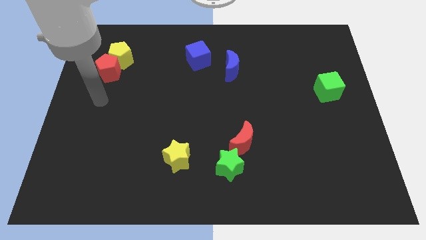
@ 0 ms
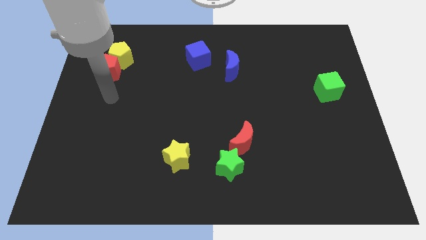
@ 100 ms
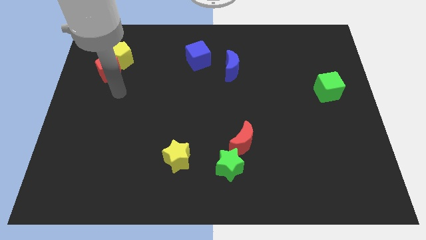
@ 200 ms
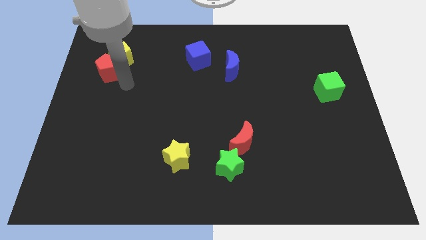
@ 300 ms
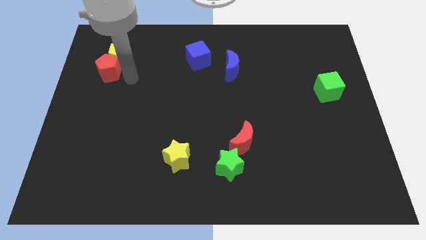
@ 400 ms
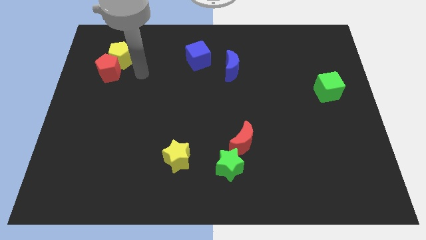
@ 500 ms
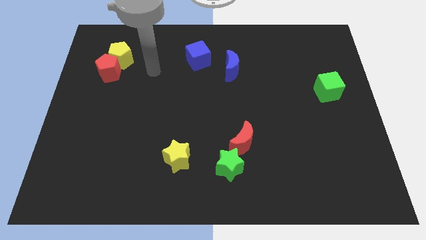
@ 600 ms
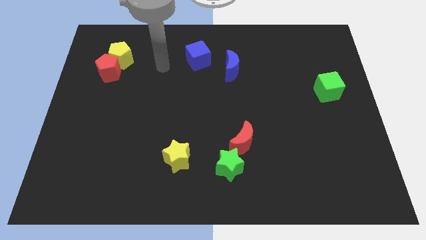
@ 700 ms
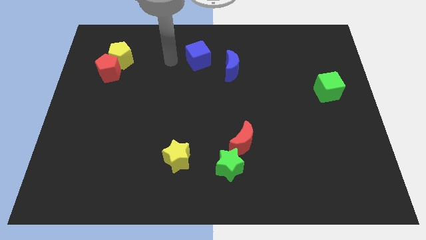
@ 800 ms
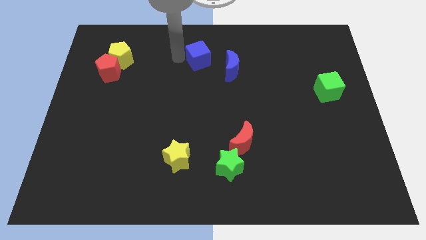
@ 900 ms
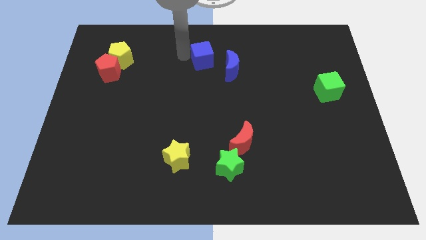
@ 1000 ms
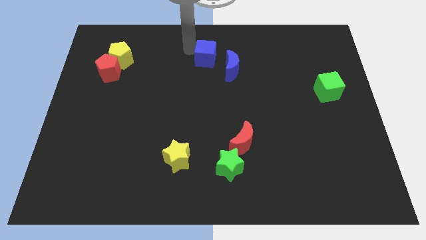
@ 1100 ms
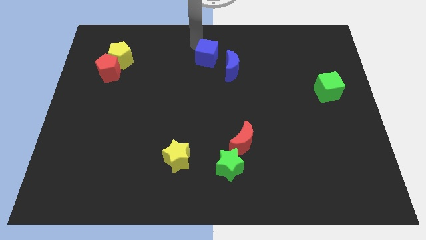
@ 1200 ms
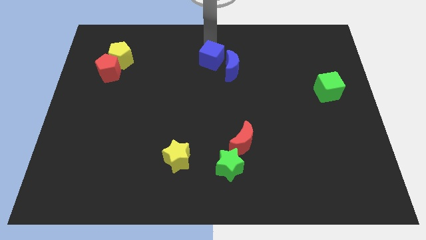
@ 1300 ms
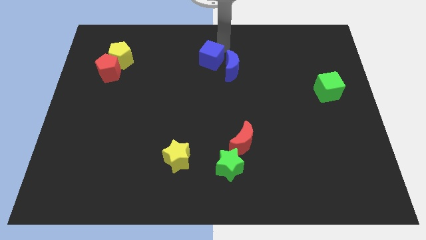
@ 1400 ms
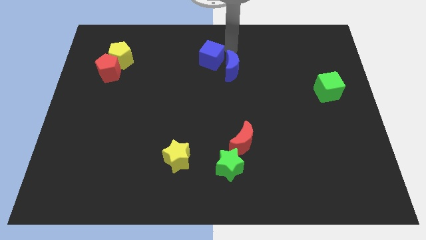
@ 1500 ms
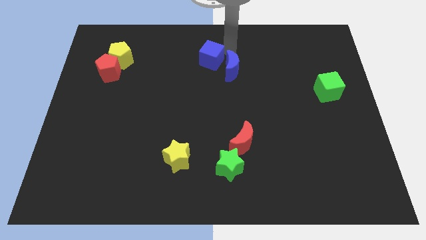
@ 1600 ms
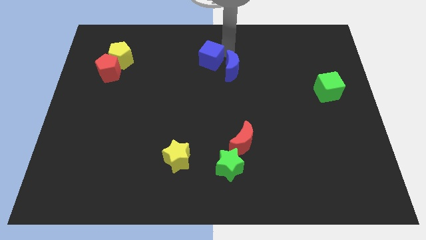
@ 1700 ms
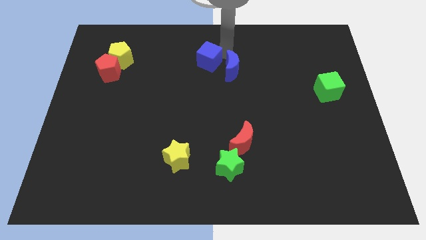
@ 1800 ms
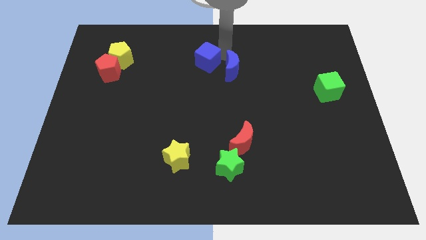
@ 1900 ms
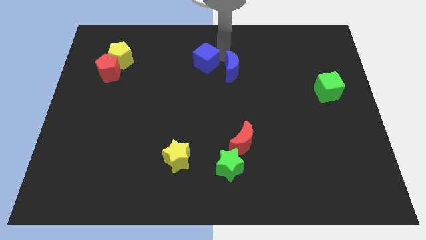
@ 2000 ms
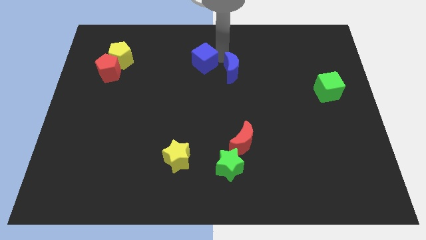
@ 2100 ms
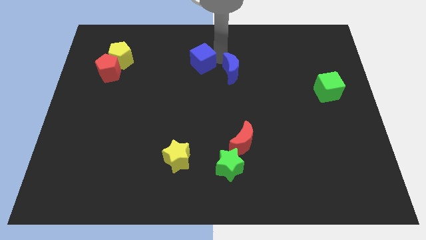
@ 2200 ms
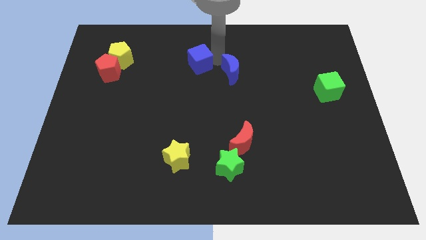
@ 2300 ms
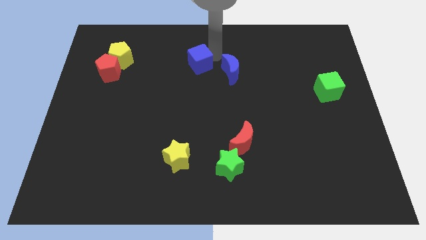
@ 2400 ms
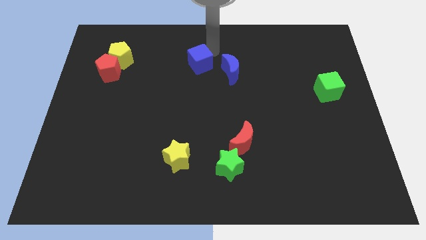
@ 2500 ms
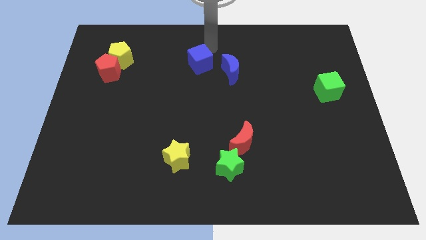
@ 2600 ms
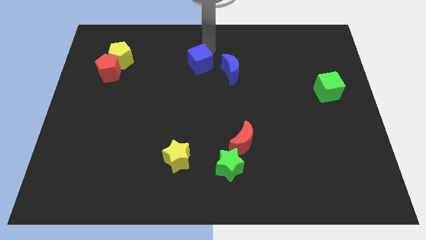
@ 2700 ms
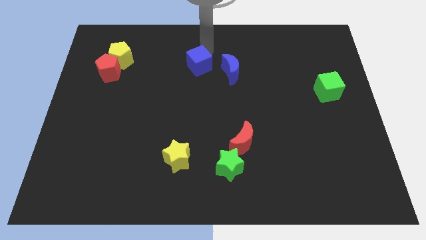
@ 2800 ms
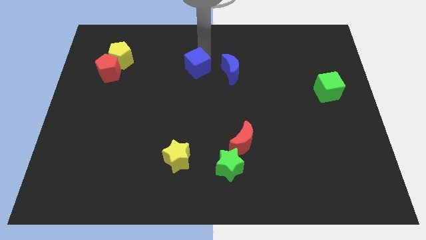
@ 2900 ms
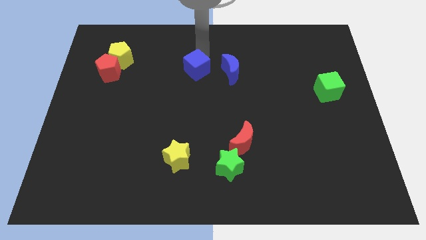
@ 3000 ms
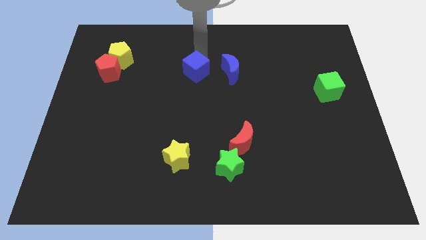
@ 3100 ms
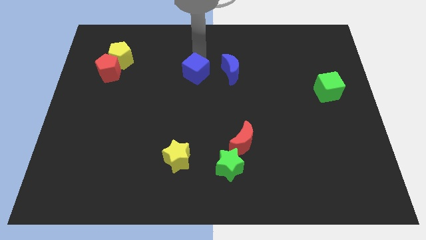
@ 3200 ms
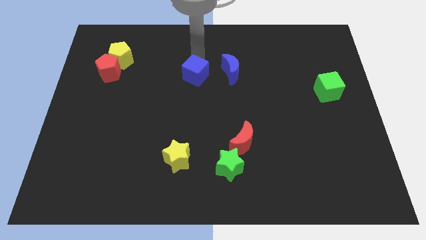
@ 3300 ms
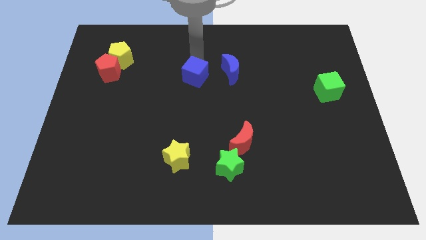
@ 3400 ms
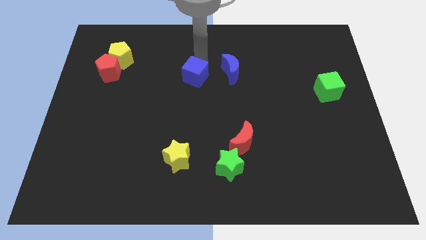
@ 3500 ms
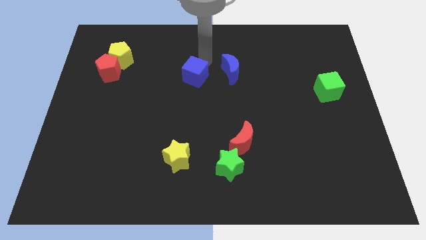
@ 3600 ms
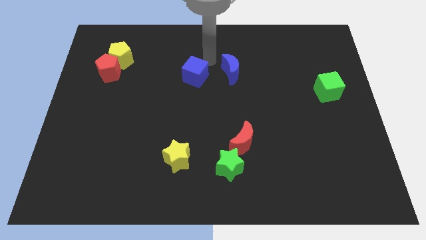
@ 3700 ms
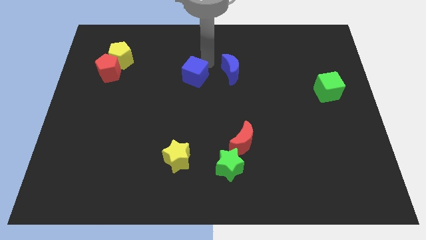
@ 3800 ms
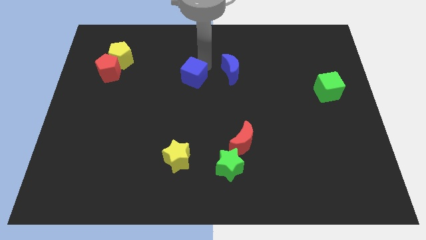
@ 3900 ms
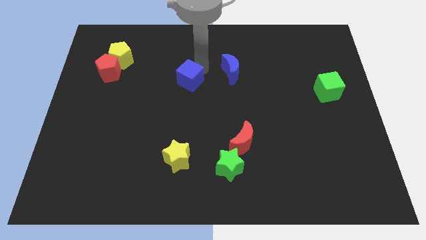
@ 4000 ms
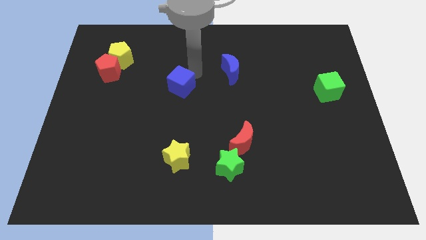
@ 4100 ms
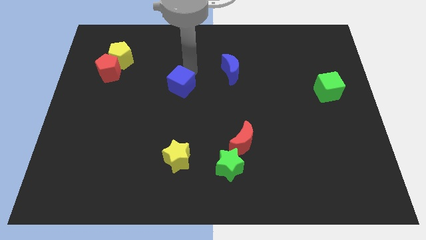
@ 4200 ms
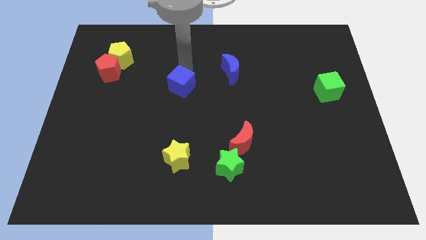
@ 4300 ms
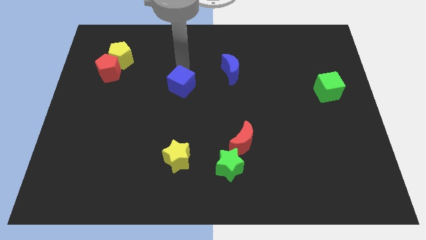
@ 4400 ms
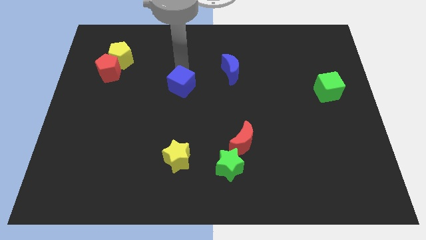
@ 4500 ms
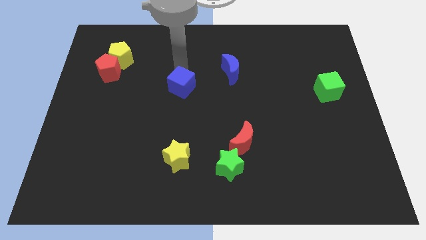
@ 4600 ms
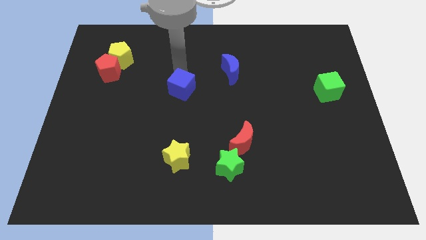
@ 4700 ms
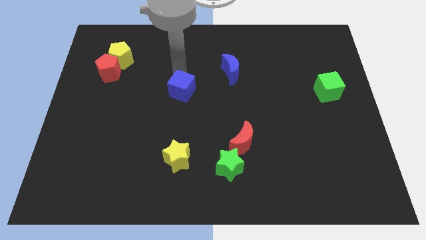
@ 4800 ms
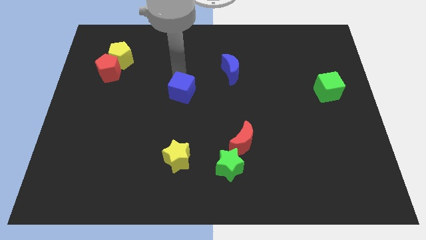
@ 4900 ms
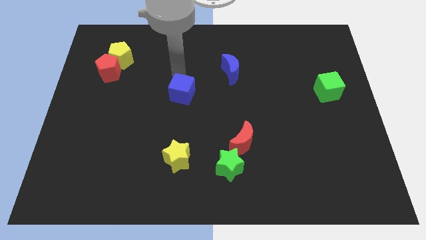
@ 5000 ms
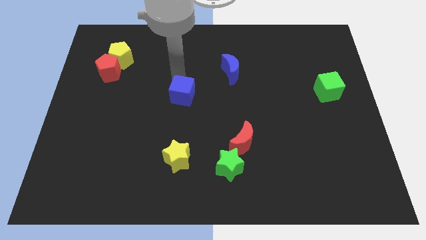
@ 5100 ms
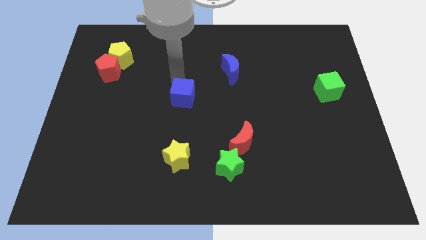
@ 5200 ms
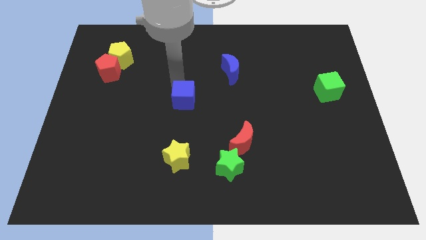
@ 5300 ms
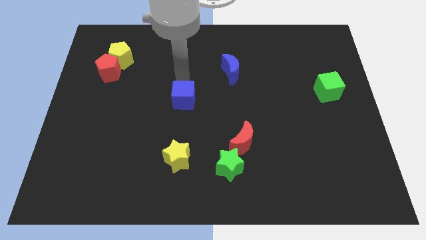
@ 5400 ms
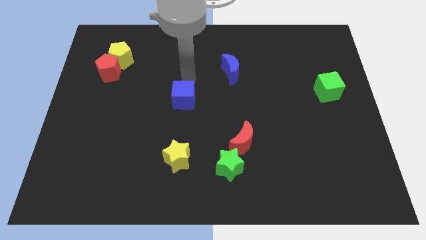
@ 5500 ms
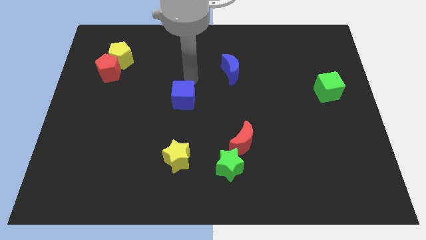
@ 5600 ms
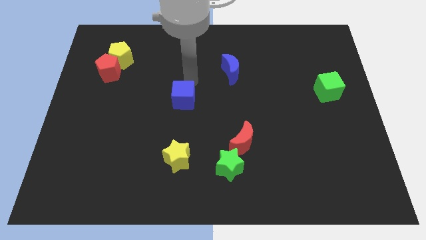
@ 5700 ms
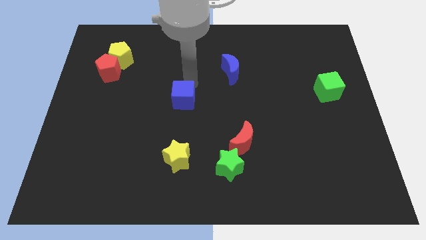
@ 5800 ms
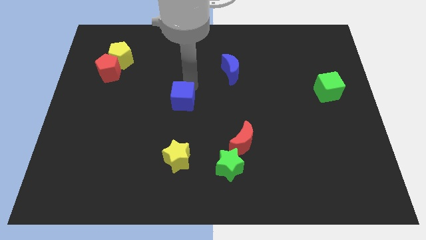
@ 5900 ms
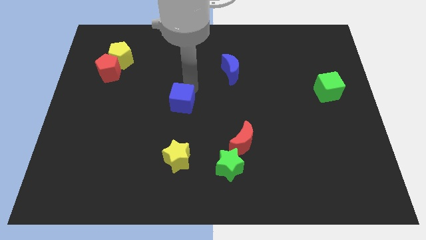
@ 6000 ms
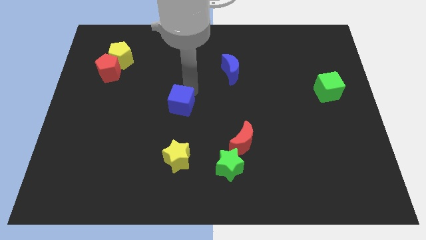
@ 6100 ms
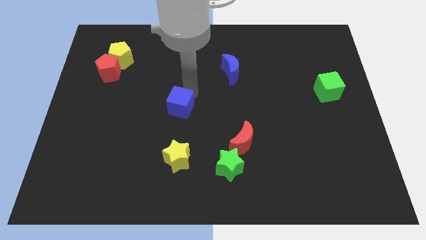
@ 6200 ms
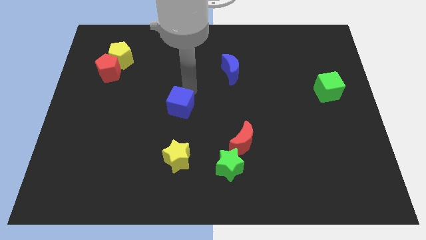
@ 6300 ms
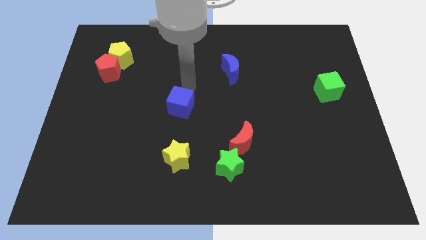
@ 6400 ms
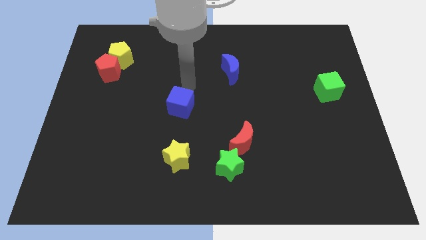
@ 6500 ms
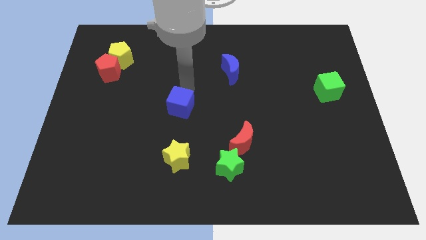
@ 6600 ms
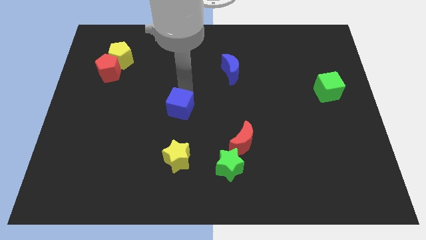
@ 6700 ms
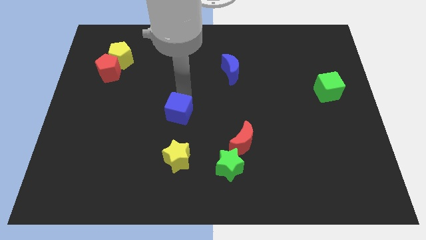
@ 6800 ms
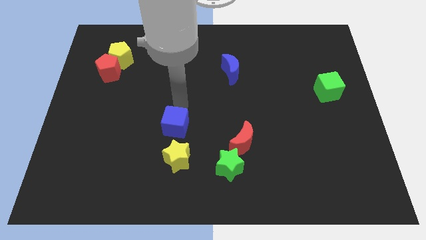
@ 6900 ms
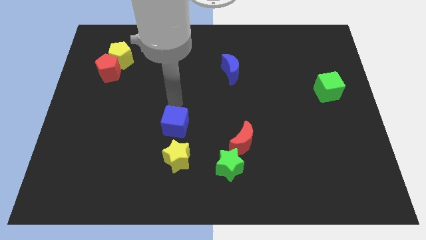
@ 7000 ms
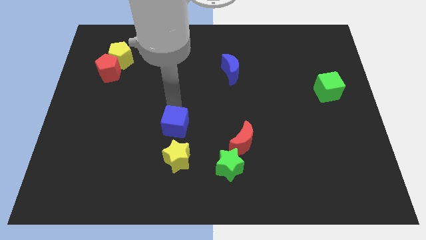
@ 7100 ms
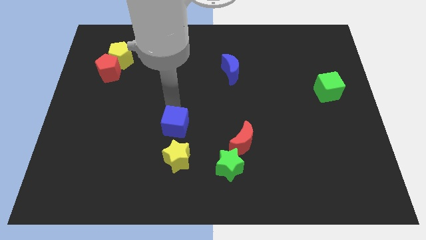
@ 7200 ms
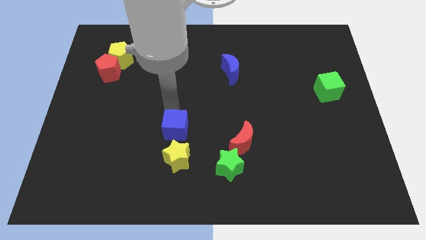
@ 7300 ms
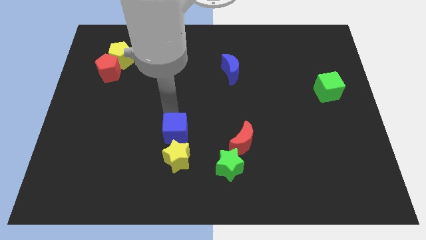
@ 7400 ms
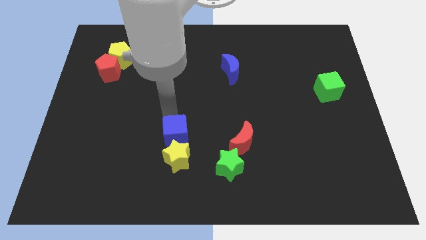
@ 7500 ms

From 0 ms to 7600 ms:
move the blue cube to the yellow star
